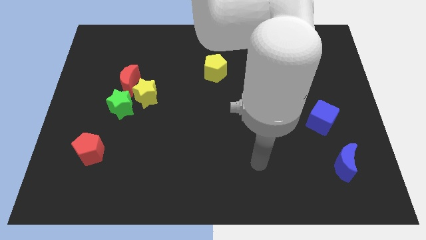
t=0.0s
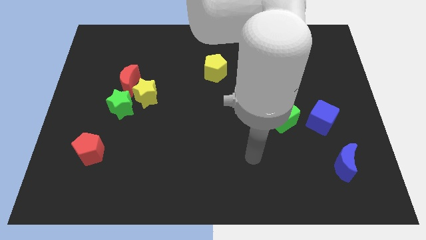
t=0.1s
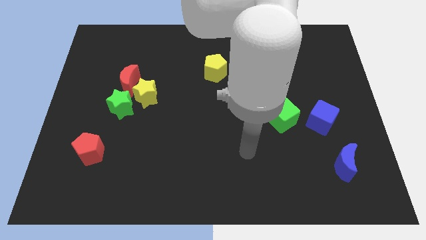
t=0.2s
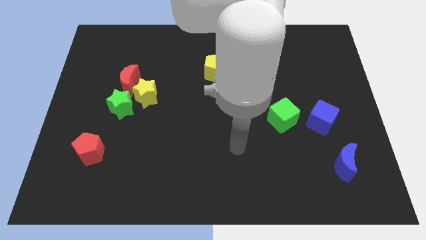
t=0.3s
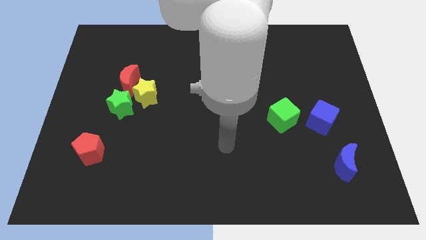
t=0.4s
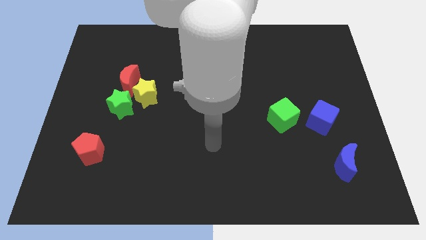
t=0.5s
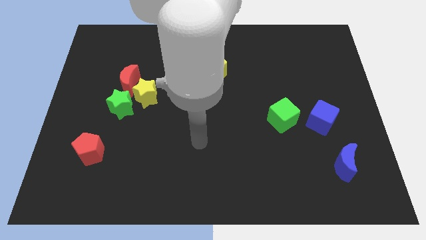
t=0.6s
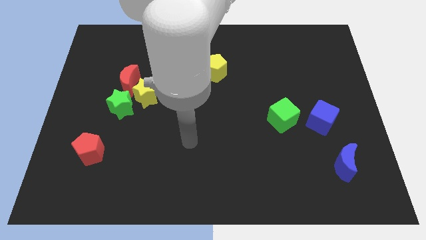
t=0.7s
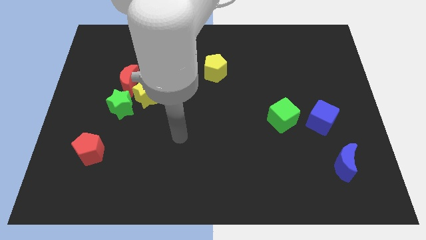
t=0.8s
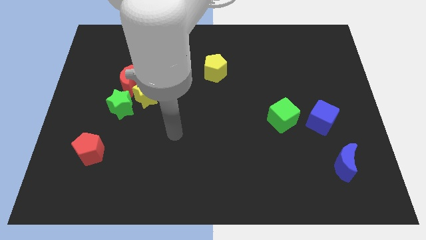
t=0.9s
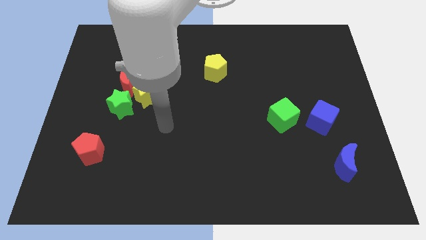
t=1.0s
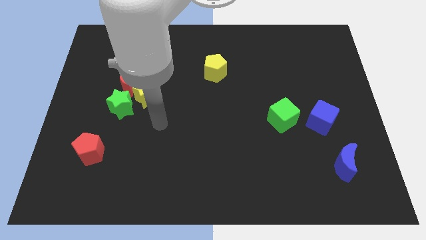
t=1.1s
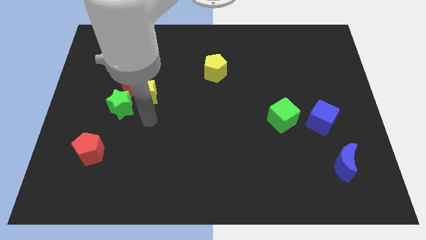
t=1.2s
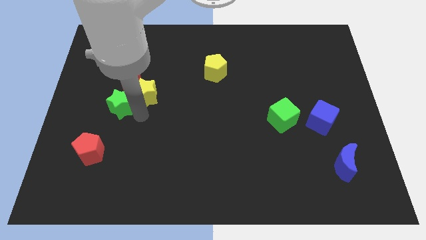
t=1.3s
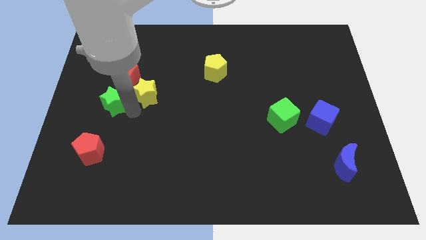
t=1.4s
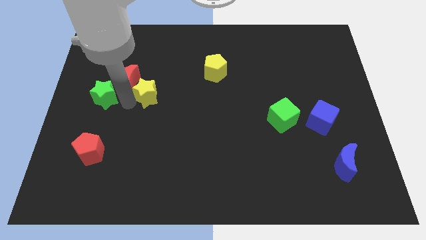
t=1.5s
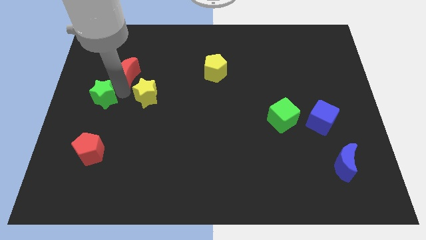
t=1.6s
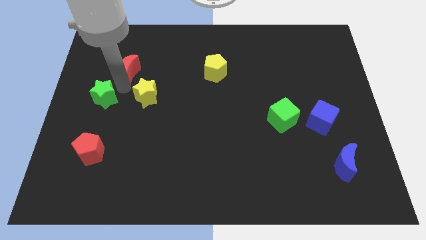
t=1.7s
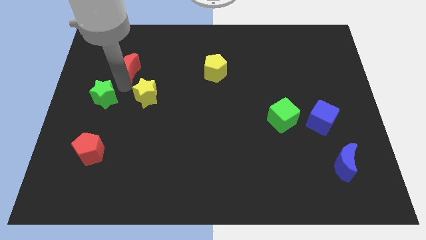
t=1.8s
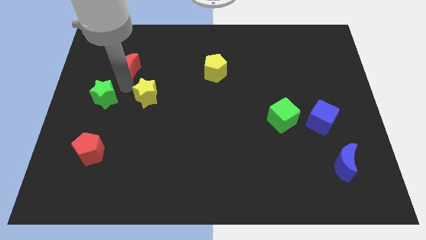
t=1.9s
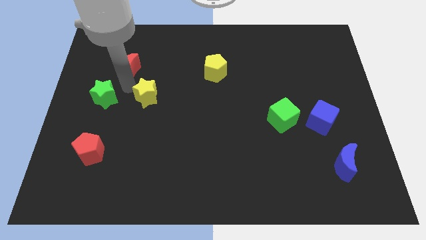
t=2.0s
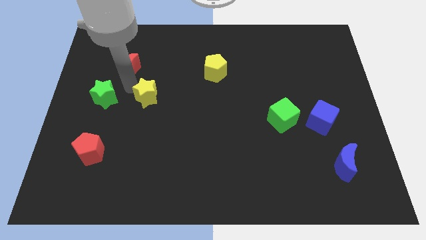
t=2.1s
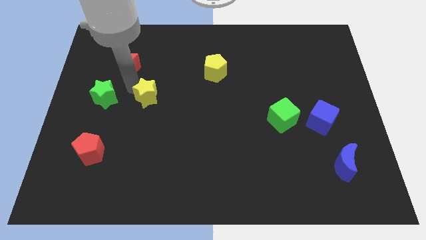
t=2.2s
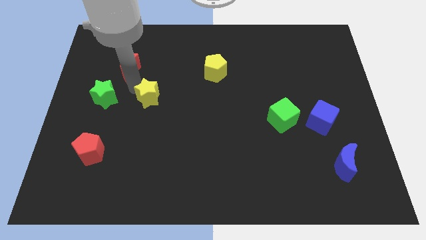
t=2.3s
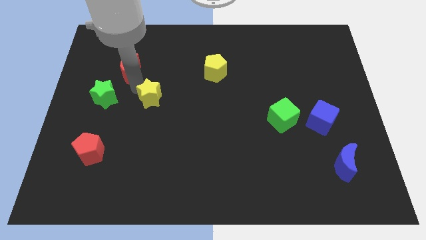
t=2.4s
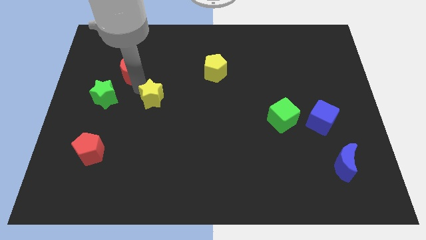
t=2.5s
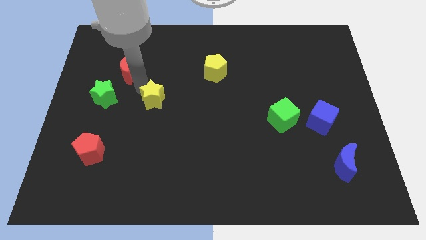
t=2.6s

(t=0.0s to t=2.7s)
move the yellow star away from the green star and red moon

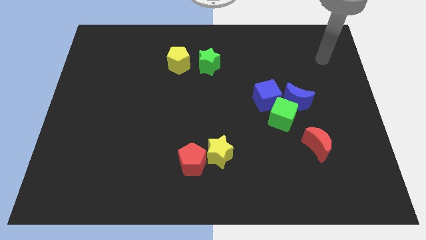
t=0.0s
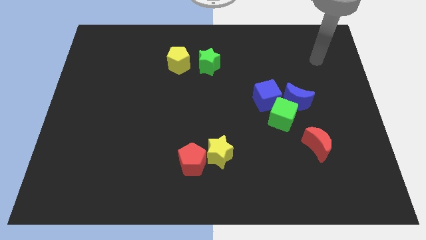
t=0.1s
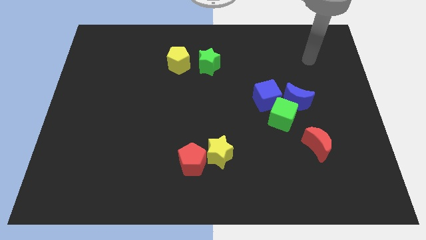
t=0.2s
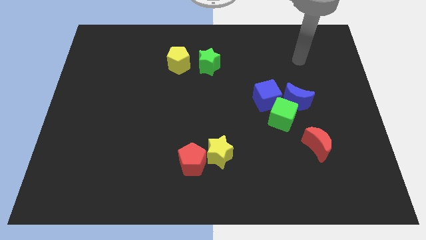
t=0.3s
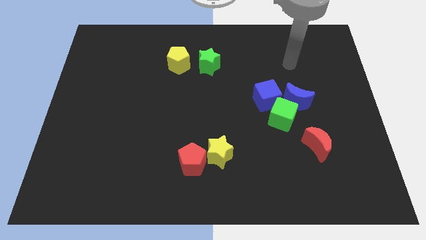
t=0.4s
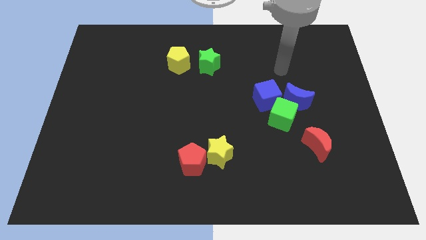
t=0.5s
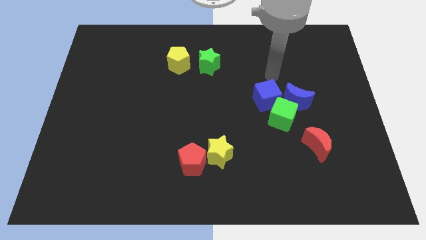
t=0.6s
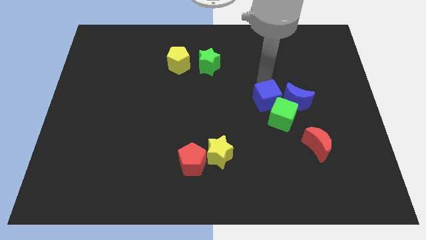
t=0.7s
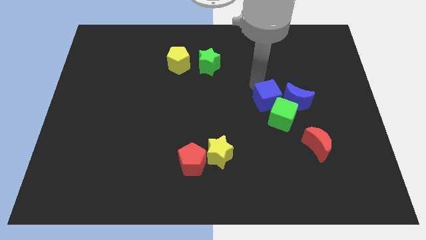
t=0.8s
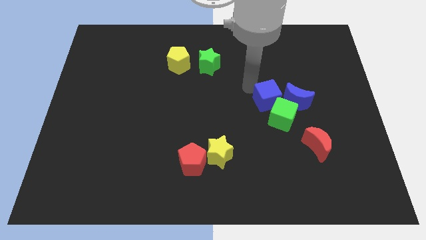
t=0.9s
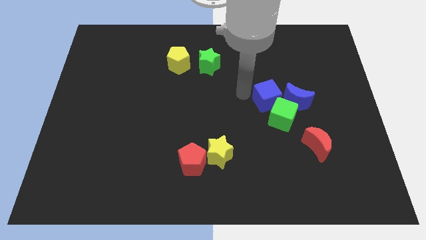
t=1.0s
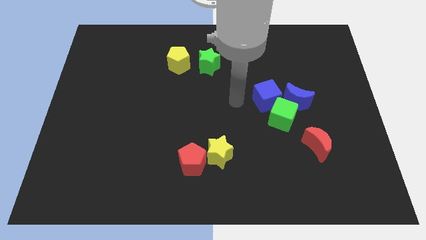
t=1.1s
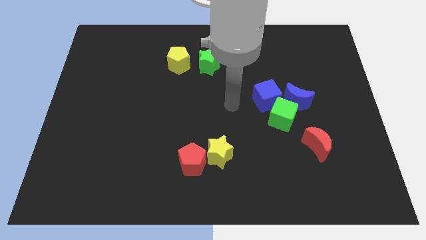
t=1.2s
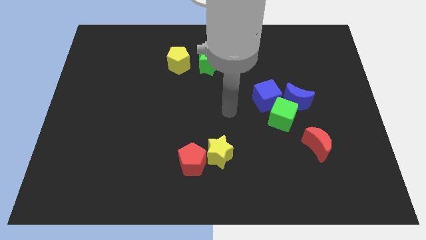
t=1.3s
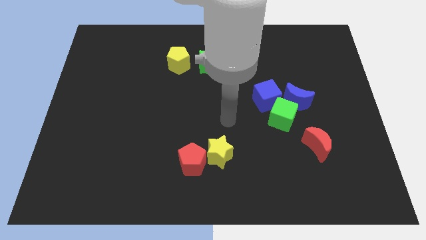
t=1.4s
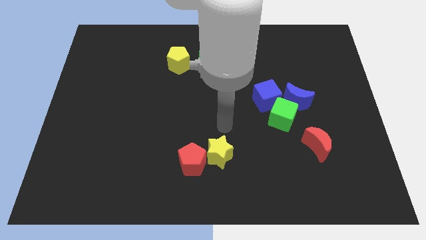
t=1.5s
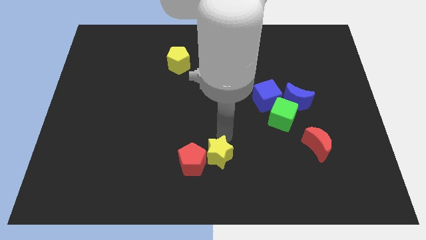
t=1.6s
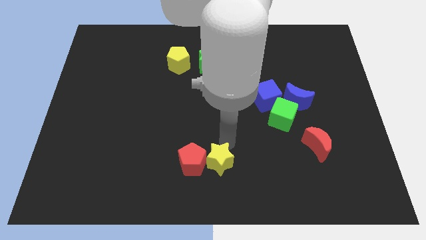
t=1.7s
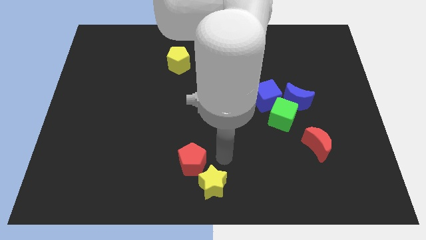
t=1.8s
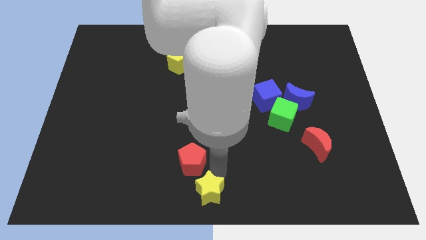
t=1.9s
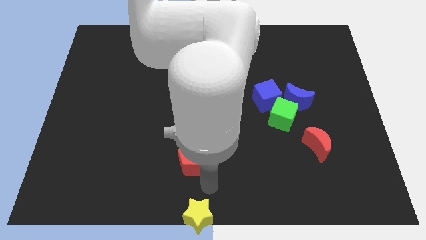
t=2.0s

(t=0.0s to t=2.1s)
separate the red pentagon from the yellow star

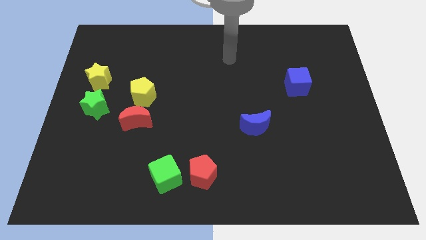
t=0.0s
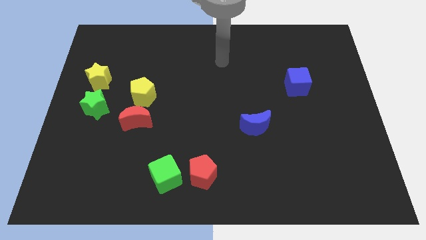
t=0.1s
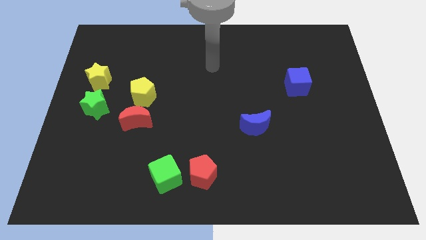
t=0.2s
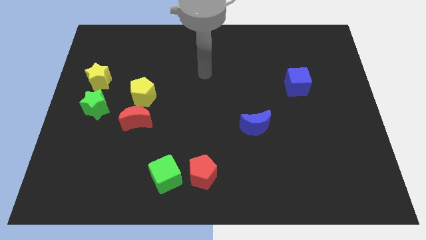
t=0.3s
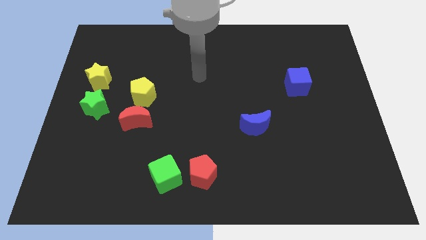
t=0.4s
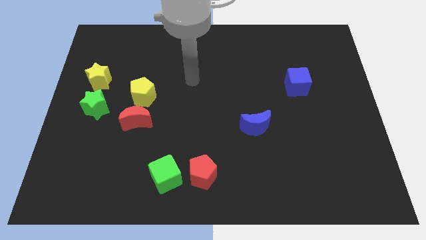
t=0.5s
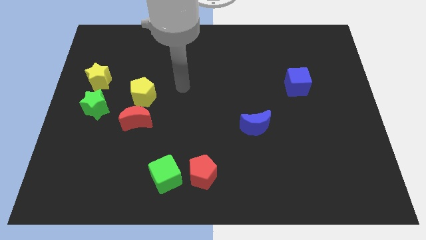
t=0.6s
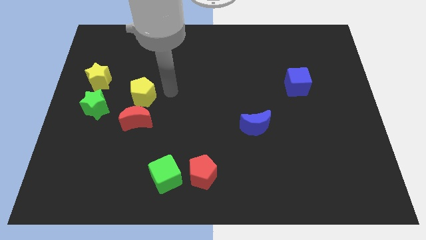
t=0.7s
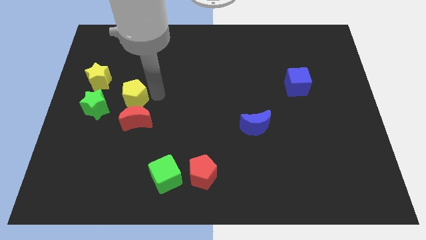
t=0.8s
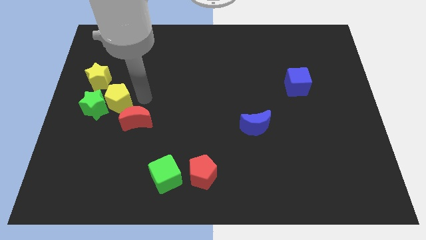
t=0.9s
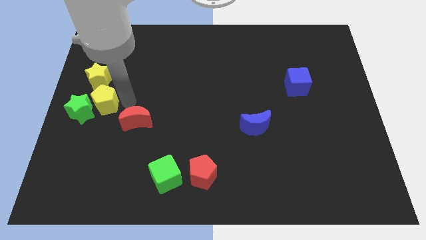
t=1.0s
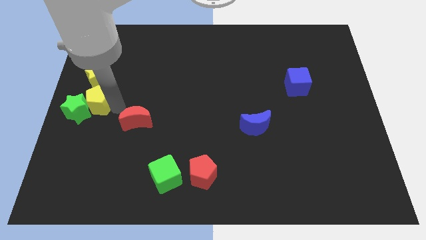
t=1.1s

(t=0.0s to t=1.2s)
separate the red moon from the yellow pentagon

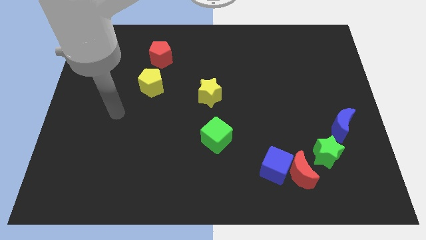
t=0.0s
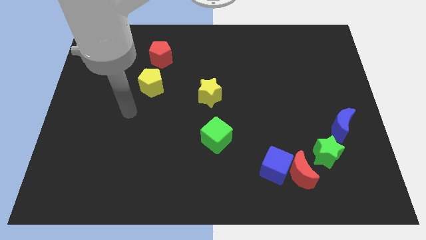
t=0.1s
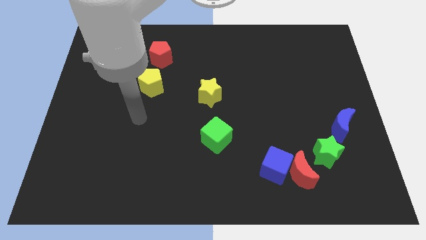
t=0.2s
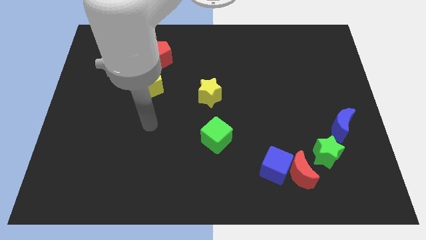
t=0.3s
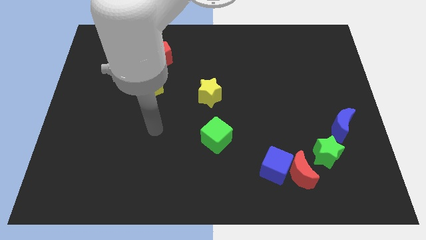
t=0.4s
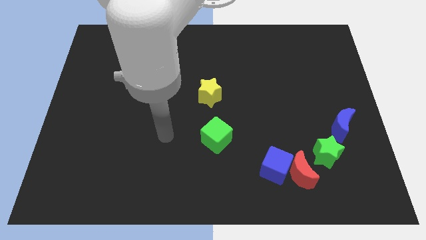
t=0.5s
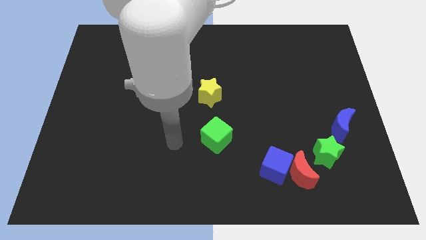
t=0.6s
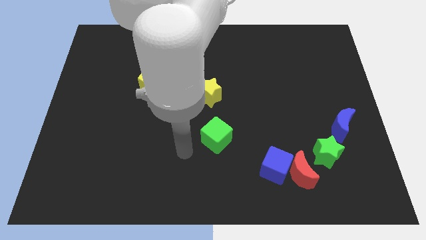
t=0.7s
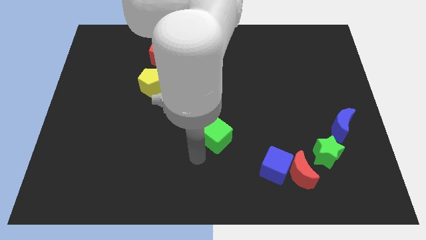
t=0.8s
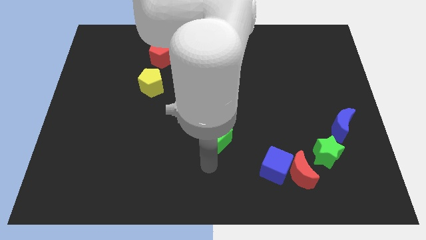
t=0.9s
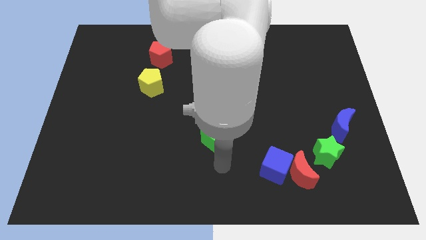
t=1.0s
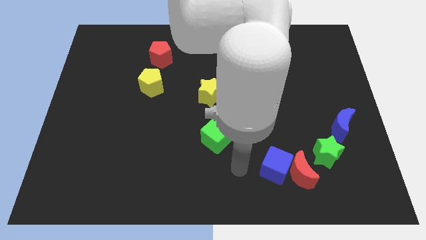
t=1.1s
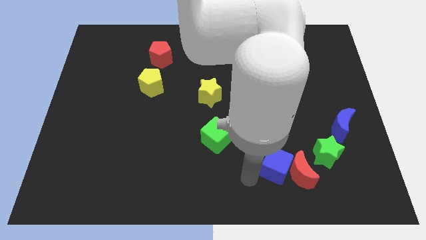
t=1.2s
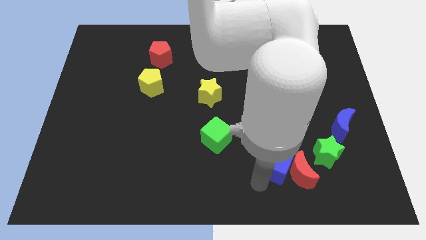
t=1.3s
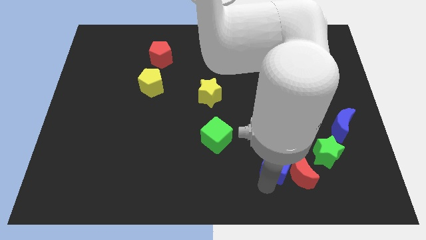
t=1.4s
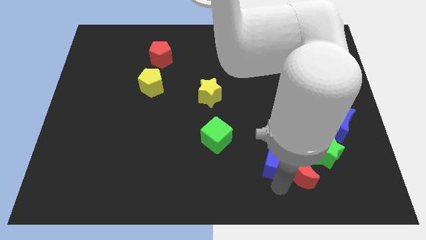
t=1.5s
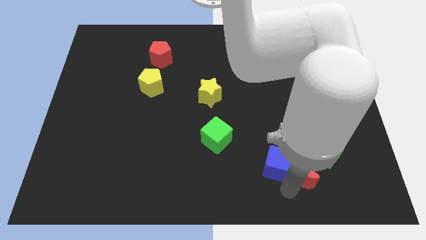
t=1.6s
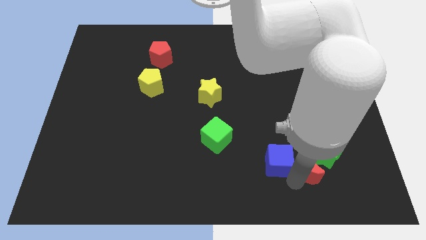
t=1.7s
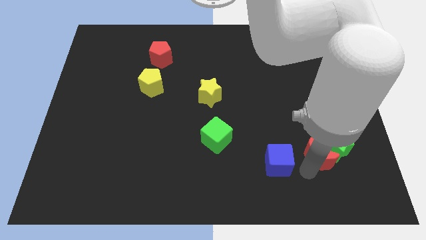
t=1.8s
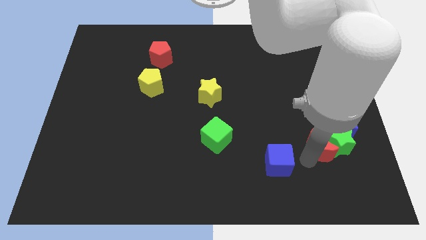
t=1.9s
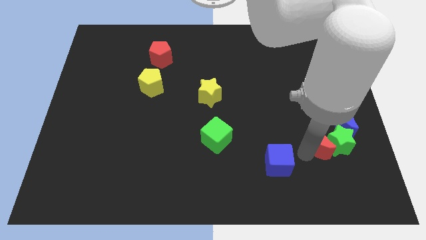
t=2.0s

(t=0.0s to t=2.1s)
move the blue cube away from the red moon

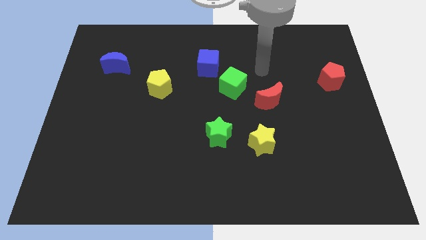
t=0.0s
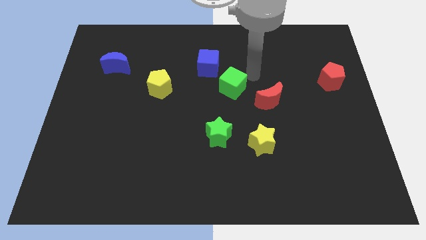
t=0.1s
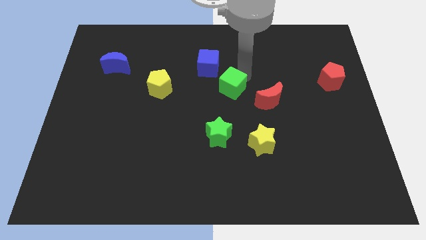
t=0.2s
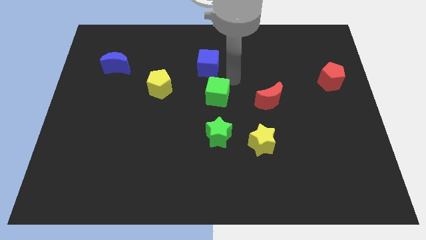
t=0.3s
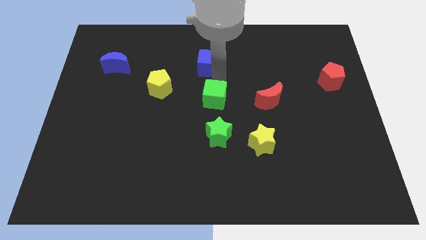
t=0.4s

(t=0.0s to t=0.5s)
move the blue cube away from the green cube

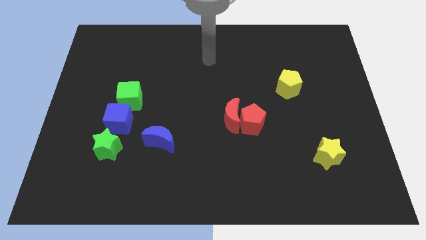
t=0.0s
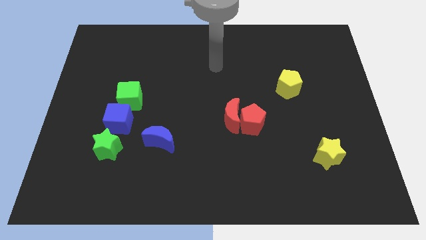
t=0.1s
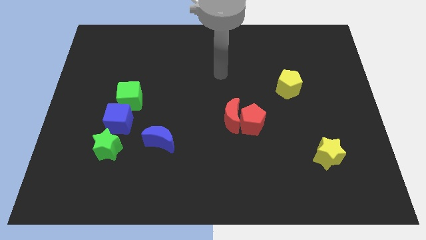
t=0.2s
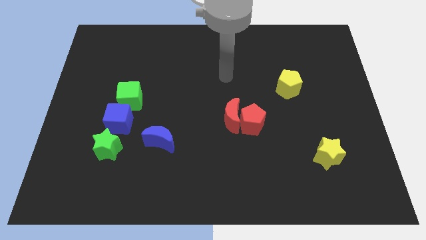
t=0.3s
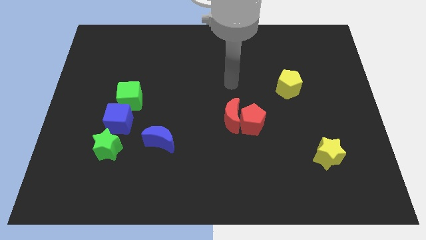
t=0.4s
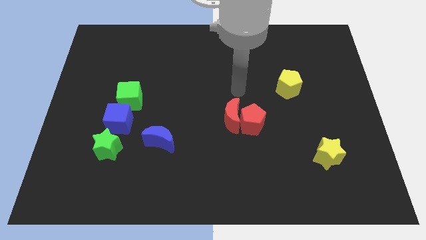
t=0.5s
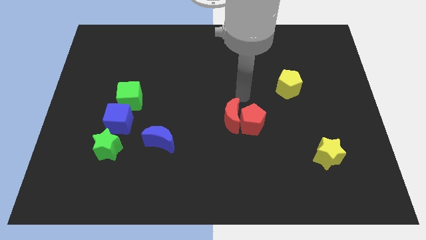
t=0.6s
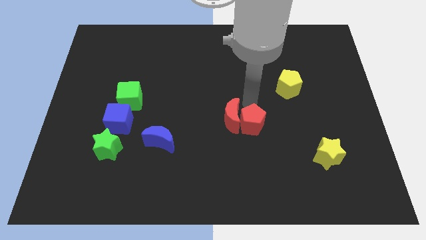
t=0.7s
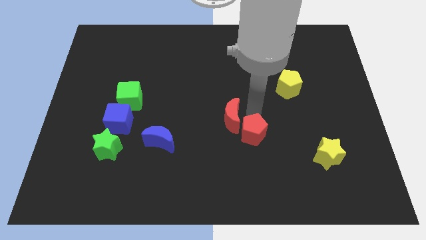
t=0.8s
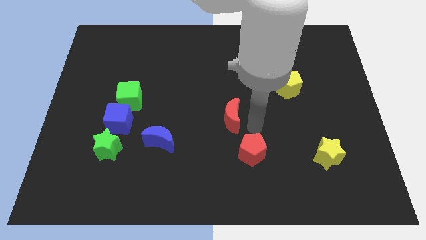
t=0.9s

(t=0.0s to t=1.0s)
pull the red moon apart from the red pentagon
